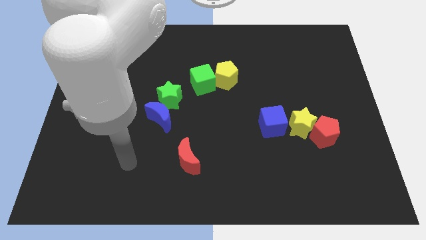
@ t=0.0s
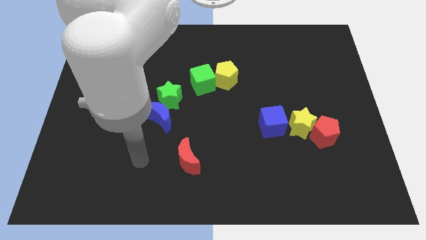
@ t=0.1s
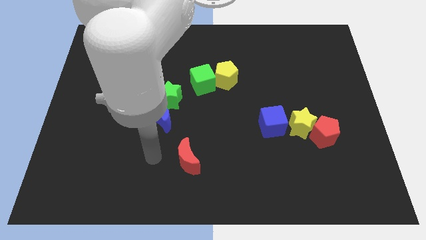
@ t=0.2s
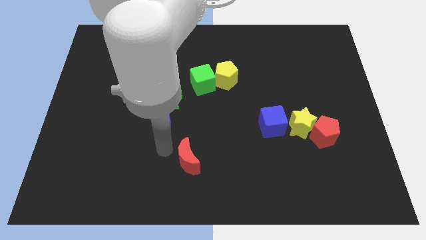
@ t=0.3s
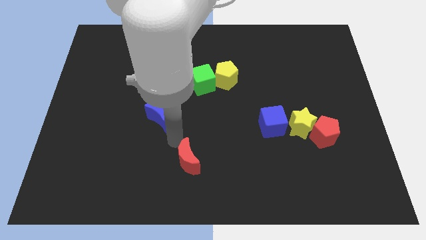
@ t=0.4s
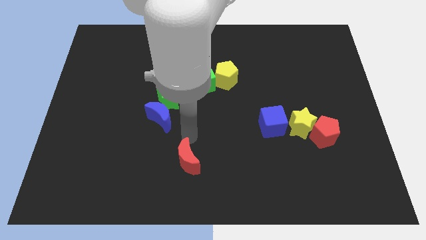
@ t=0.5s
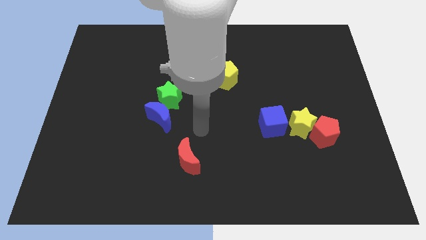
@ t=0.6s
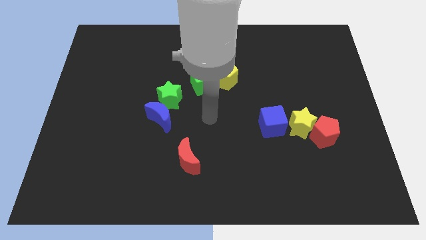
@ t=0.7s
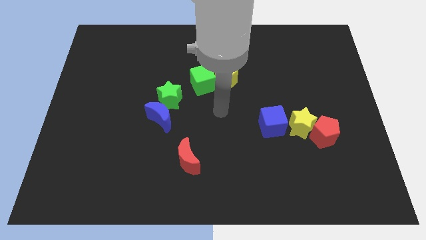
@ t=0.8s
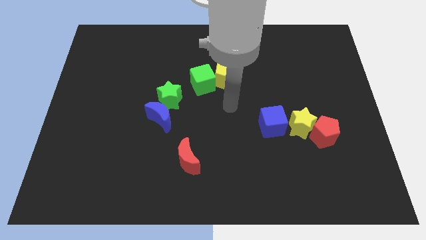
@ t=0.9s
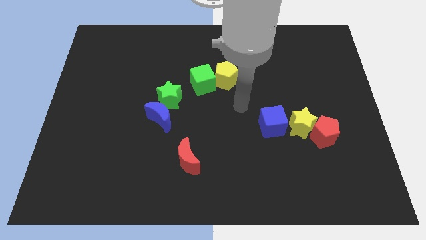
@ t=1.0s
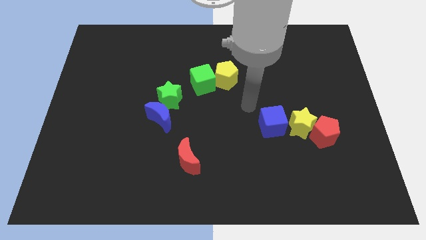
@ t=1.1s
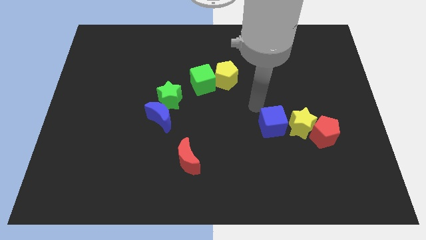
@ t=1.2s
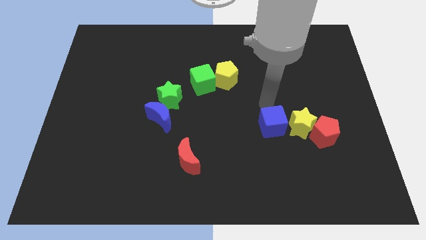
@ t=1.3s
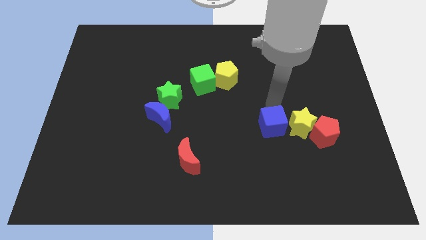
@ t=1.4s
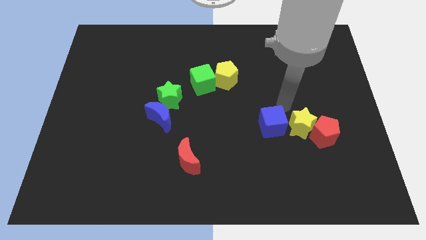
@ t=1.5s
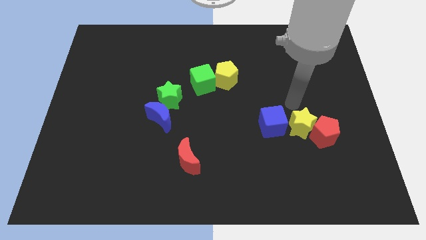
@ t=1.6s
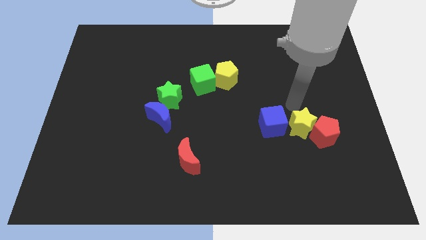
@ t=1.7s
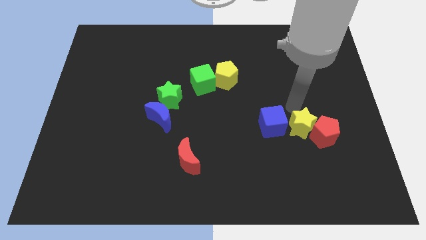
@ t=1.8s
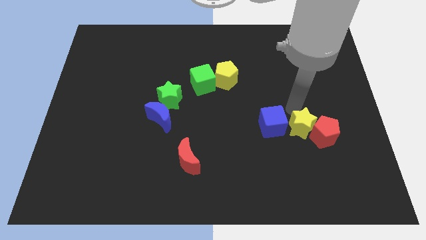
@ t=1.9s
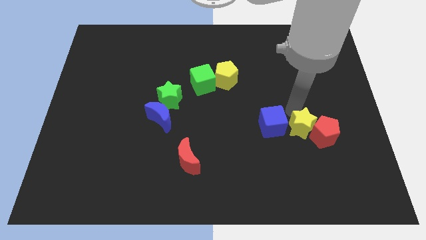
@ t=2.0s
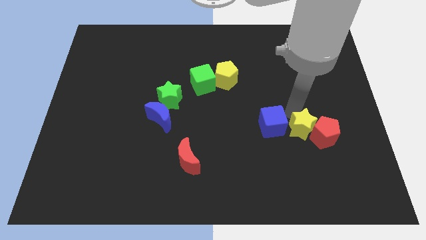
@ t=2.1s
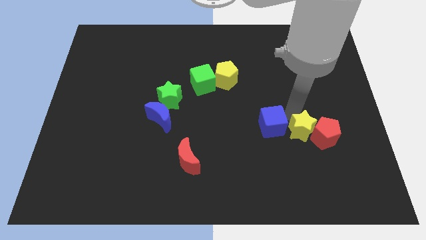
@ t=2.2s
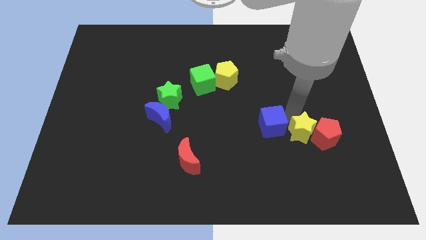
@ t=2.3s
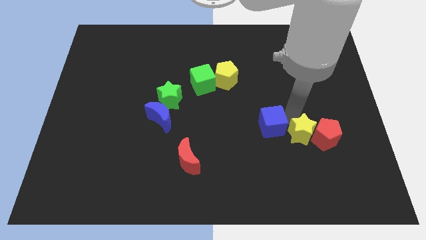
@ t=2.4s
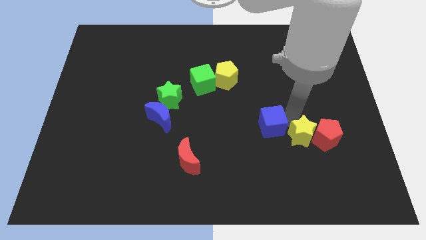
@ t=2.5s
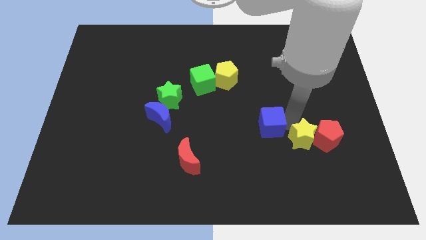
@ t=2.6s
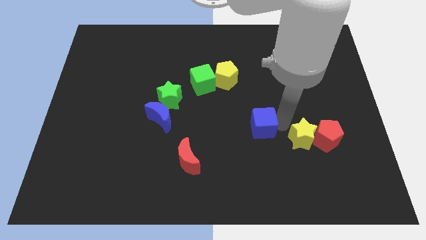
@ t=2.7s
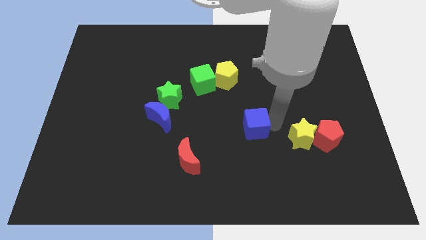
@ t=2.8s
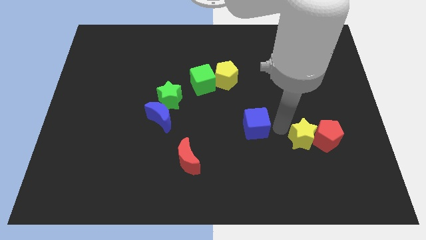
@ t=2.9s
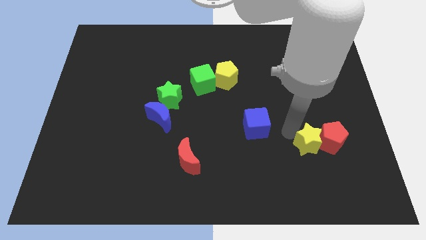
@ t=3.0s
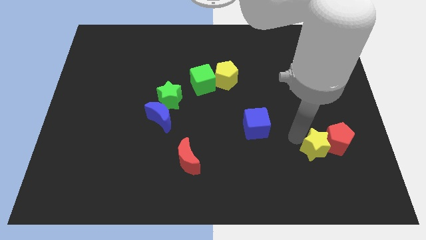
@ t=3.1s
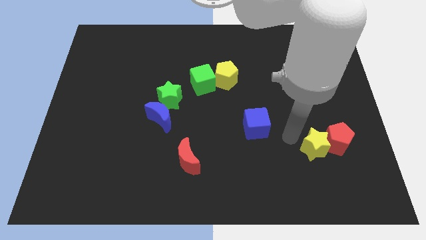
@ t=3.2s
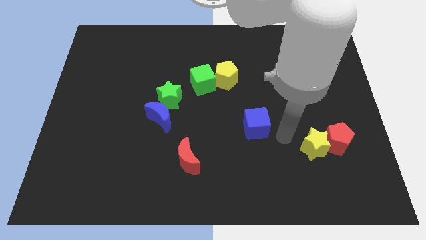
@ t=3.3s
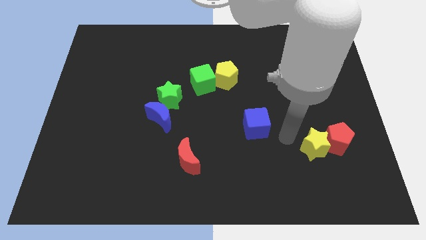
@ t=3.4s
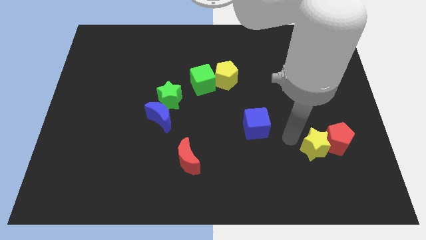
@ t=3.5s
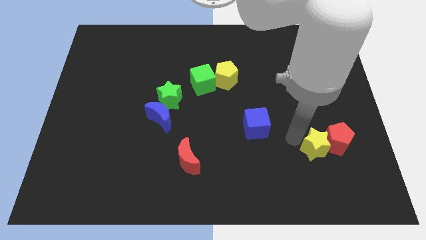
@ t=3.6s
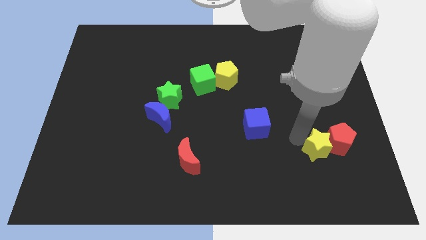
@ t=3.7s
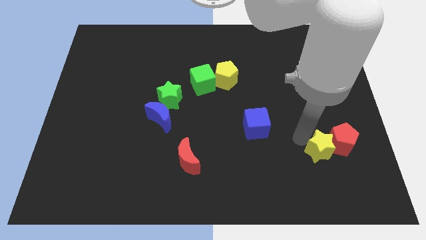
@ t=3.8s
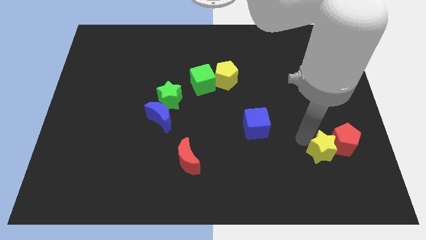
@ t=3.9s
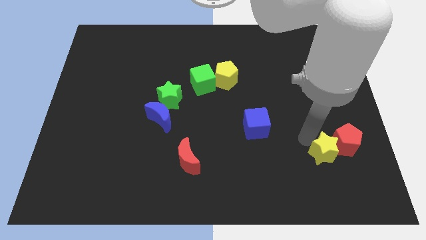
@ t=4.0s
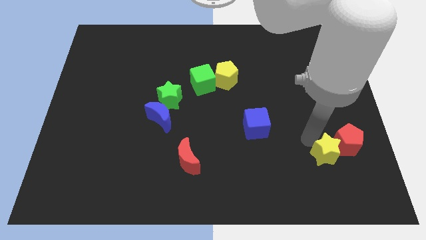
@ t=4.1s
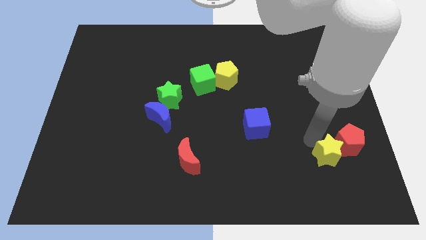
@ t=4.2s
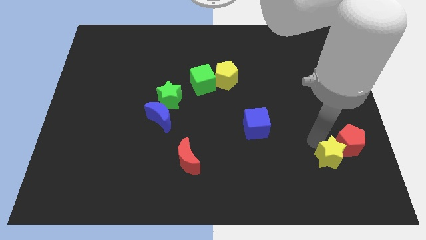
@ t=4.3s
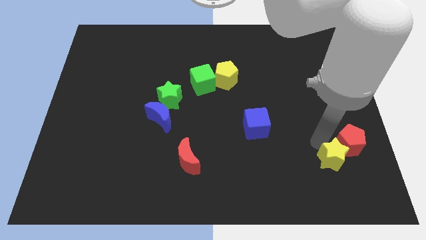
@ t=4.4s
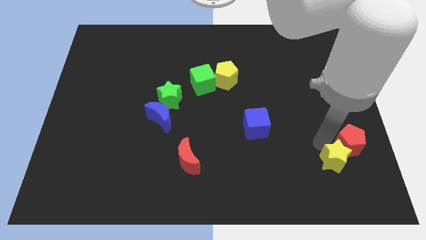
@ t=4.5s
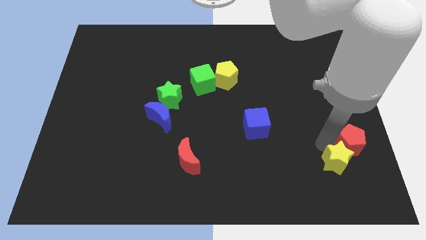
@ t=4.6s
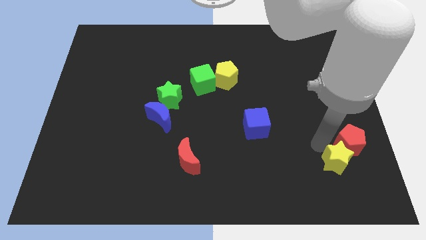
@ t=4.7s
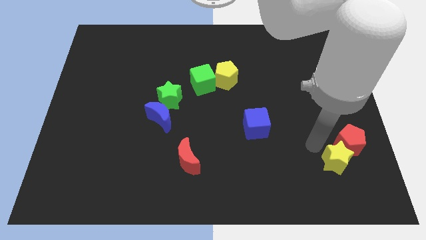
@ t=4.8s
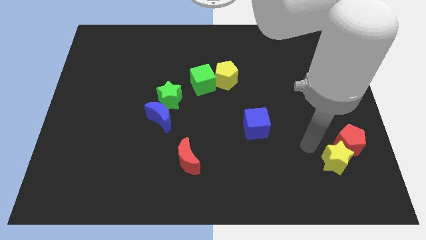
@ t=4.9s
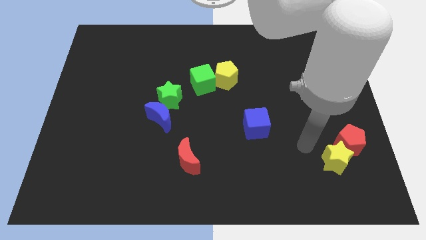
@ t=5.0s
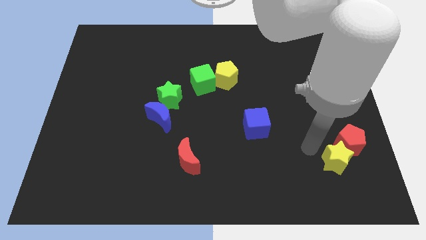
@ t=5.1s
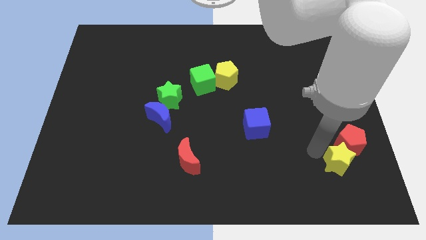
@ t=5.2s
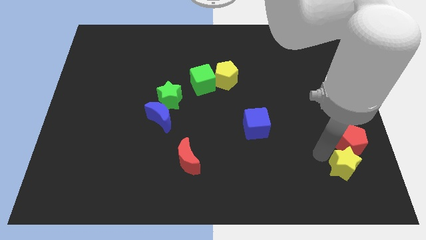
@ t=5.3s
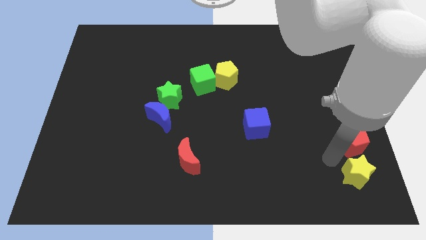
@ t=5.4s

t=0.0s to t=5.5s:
push the yellow star to the bottom right

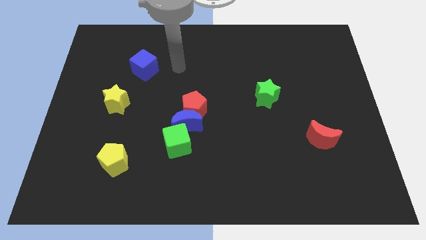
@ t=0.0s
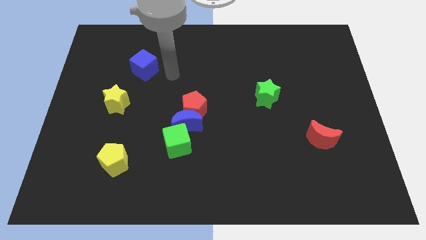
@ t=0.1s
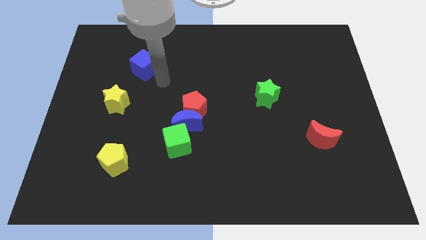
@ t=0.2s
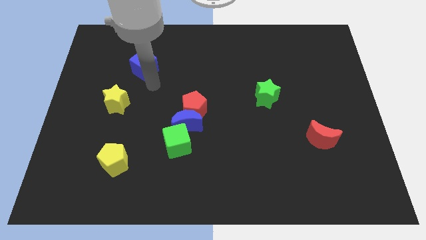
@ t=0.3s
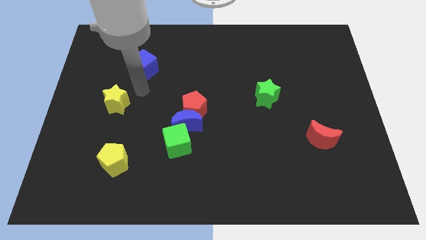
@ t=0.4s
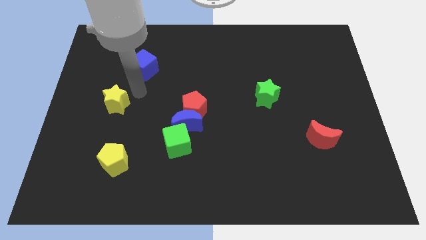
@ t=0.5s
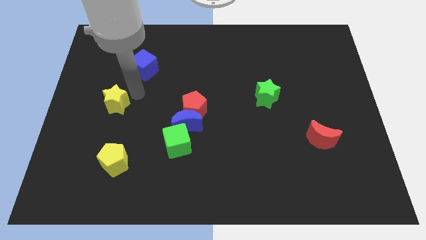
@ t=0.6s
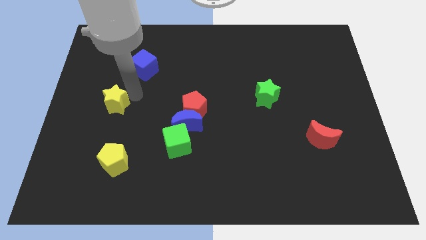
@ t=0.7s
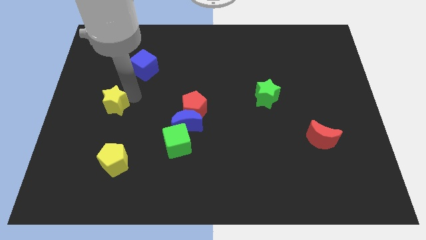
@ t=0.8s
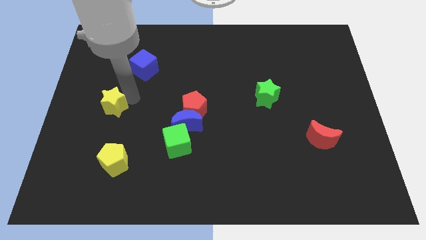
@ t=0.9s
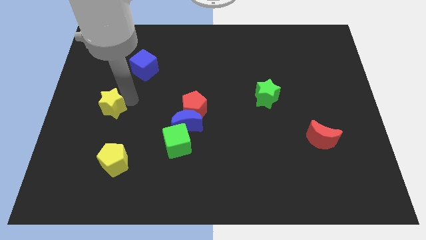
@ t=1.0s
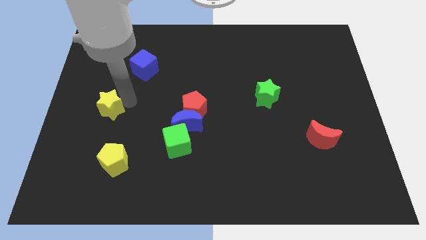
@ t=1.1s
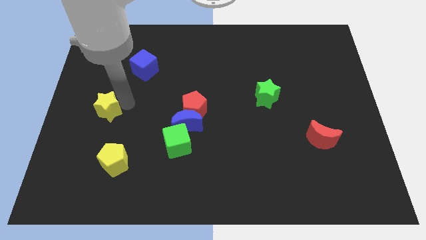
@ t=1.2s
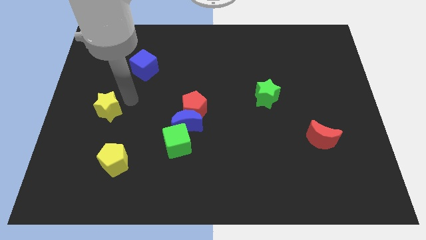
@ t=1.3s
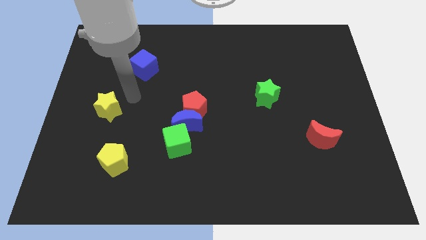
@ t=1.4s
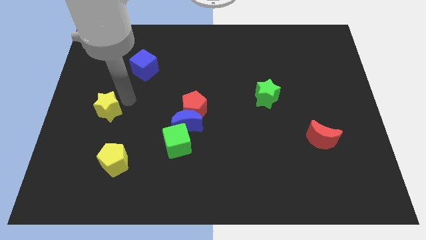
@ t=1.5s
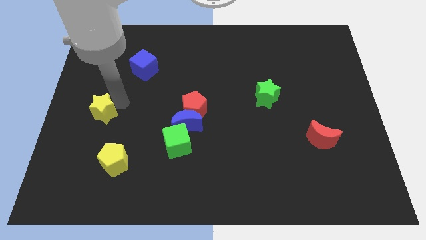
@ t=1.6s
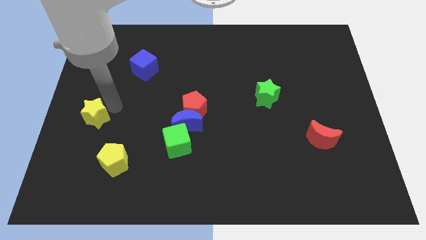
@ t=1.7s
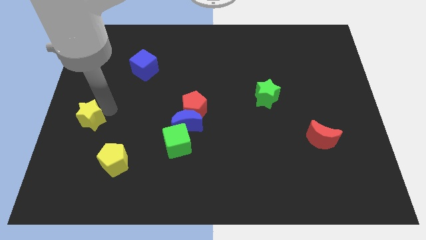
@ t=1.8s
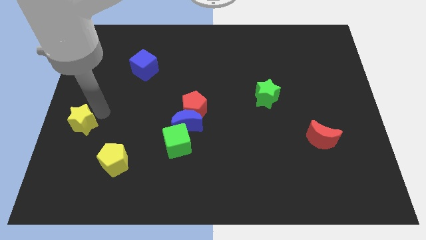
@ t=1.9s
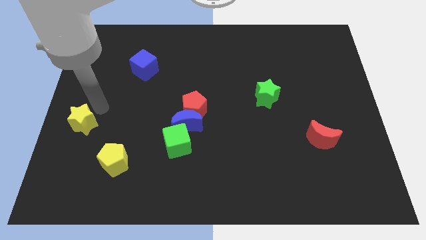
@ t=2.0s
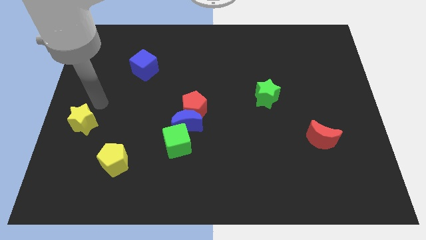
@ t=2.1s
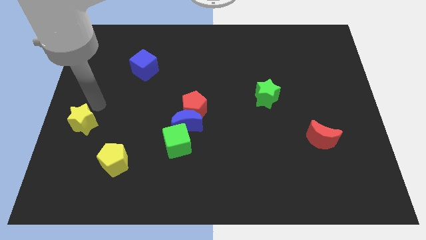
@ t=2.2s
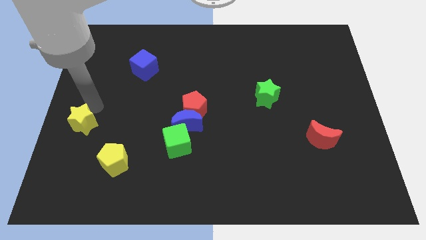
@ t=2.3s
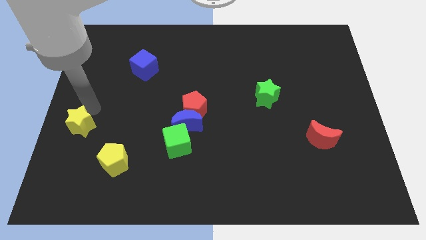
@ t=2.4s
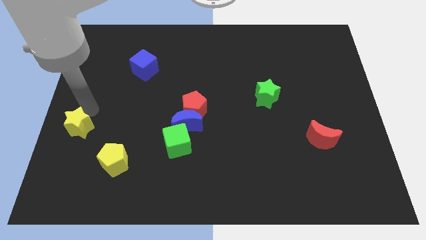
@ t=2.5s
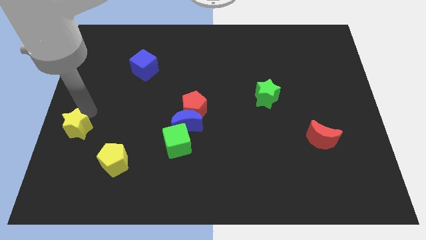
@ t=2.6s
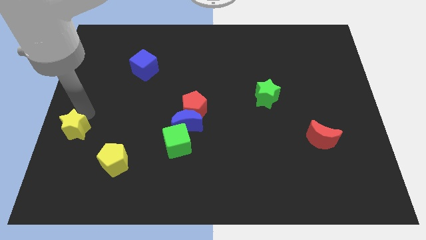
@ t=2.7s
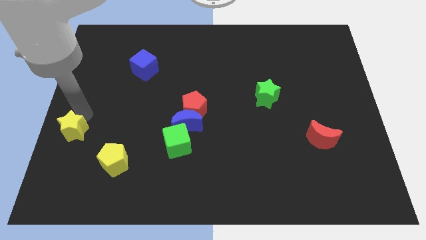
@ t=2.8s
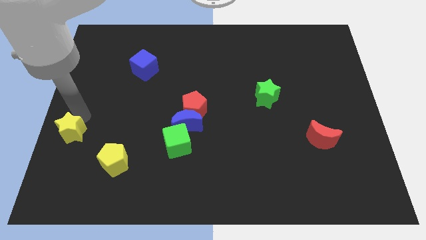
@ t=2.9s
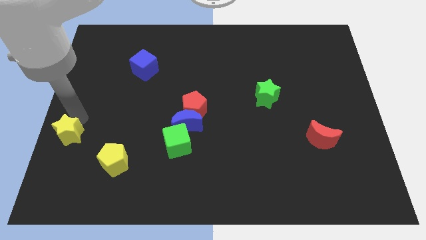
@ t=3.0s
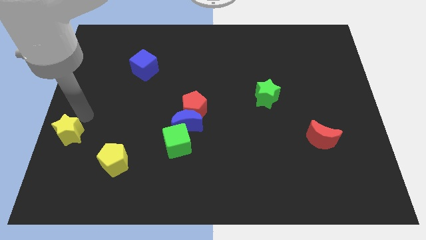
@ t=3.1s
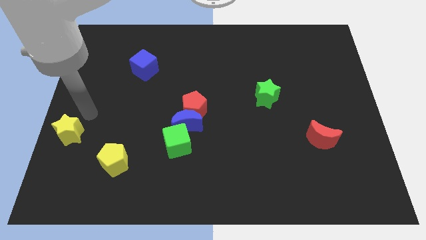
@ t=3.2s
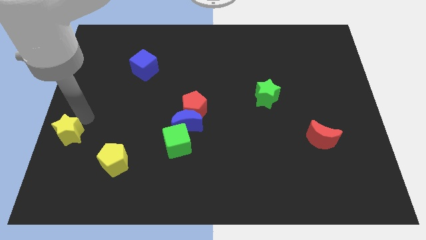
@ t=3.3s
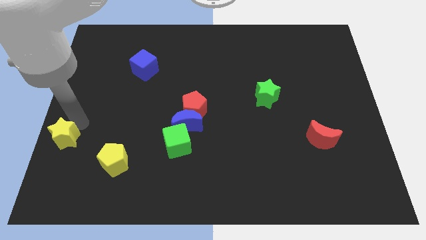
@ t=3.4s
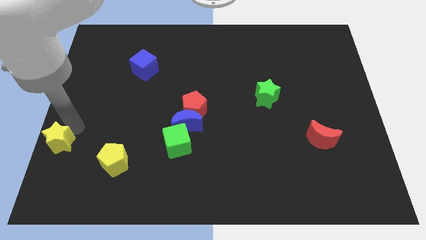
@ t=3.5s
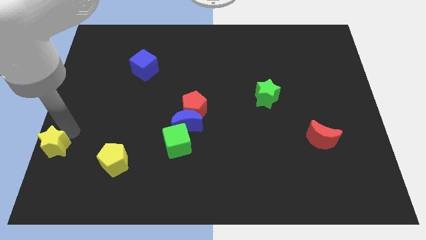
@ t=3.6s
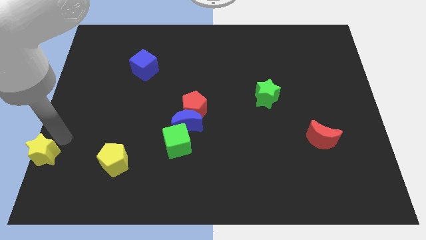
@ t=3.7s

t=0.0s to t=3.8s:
put the yellow star to the bottom left corner
